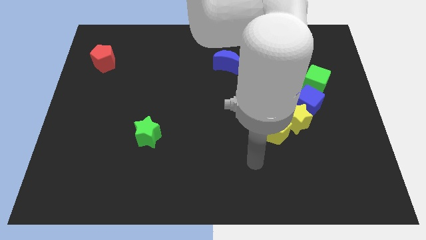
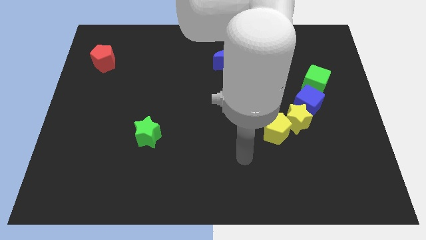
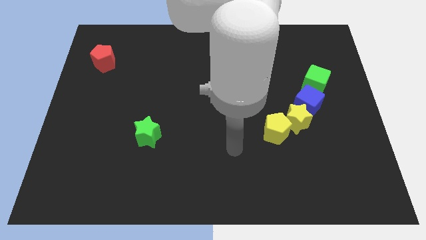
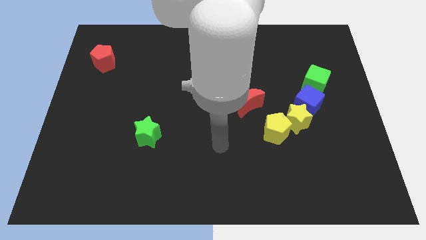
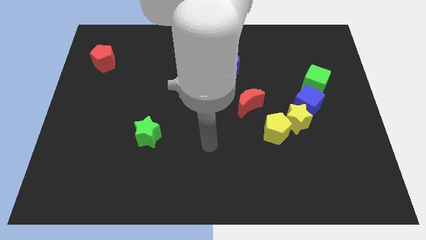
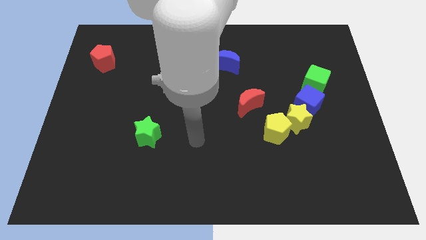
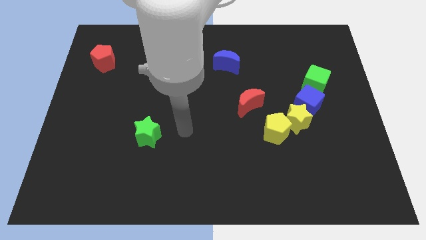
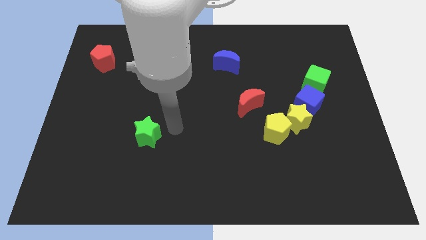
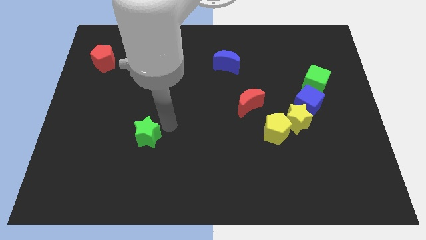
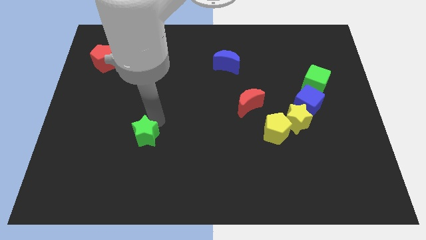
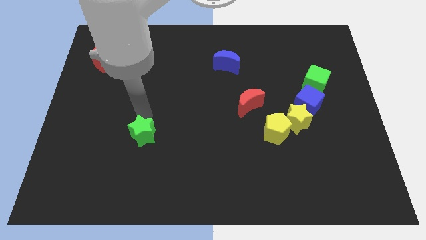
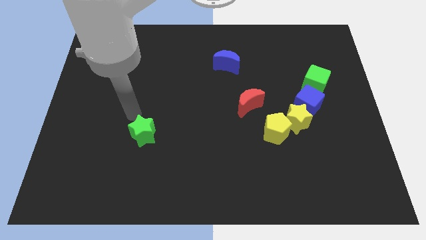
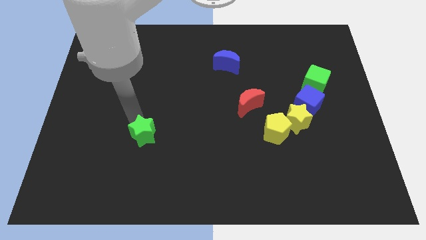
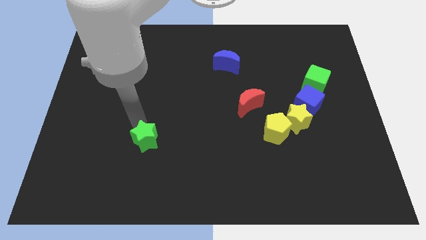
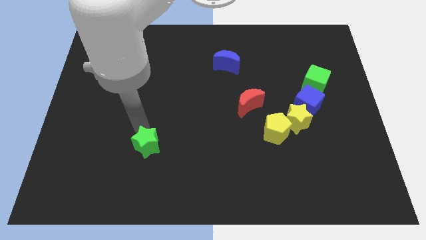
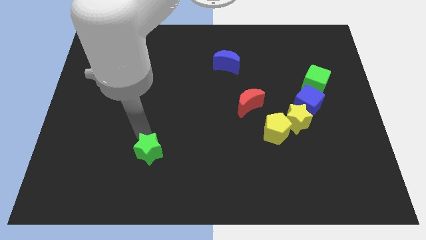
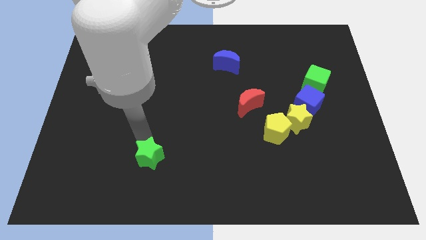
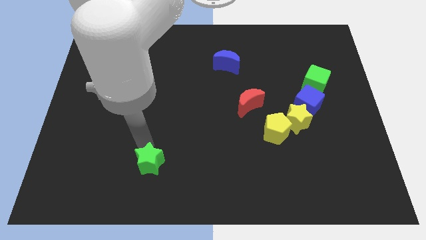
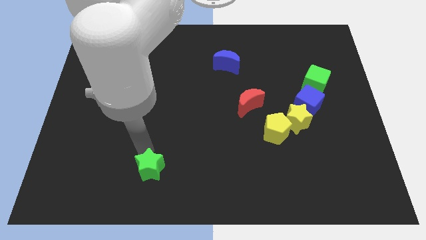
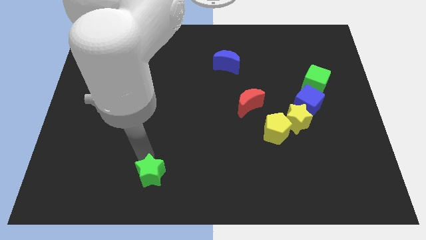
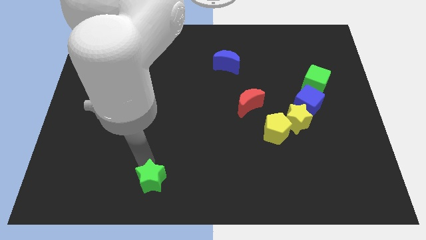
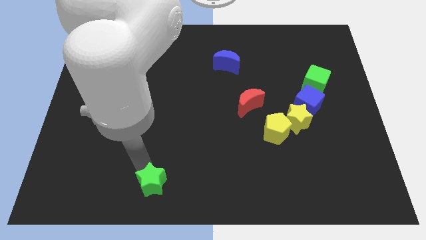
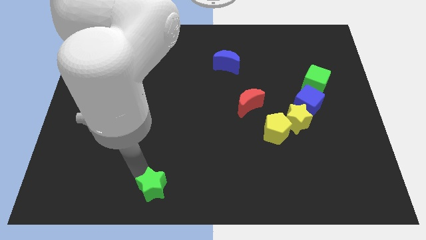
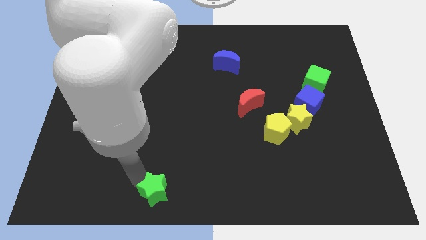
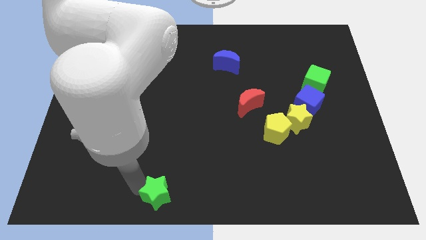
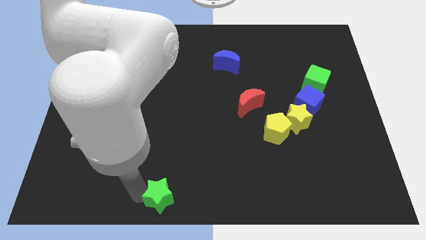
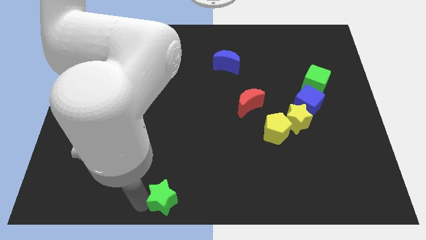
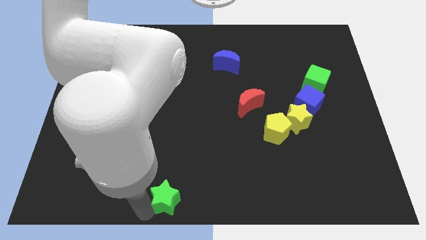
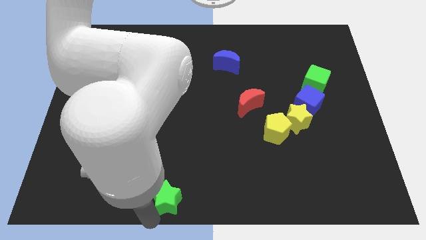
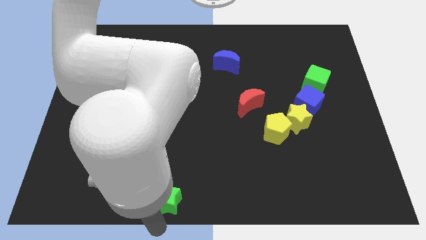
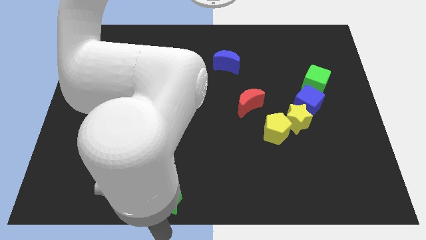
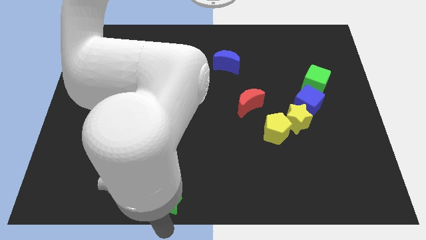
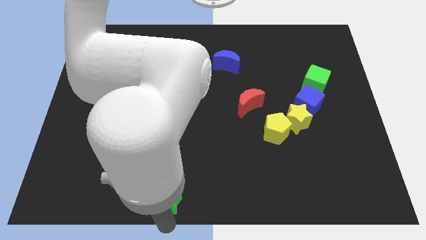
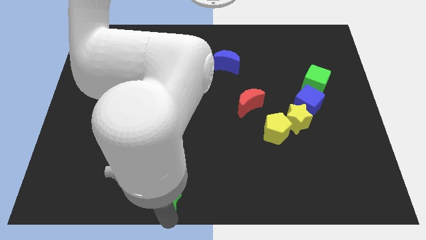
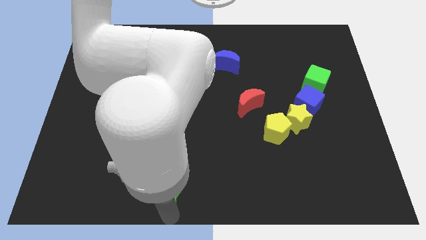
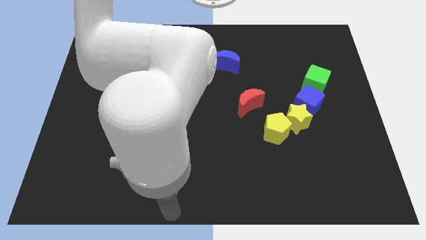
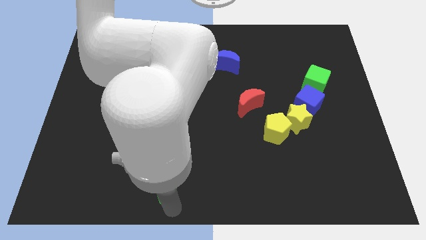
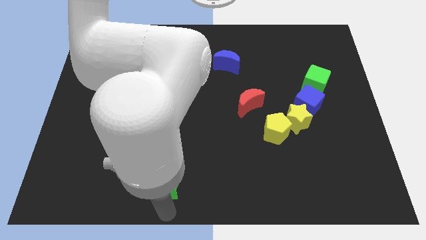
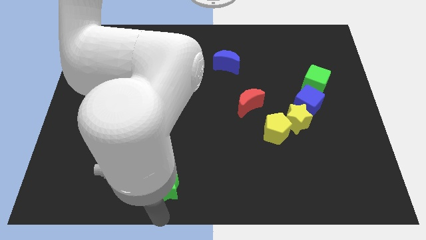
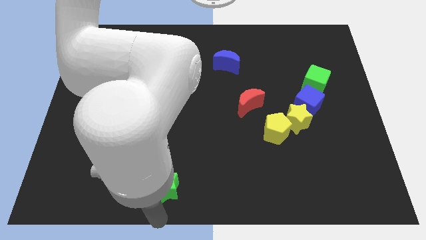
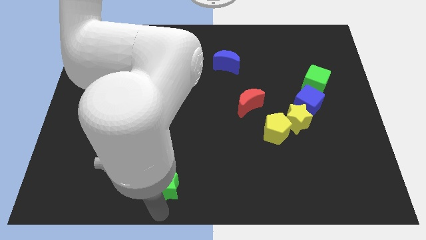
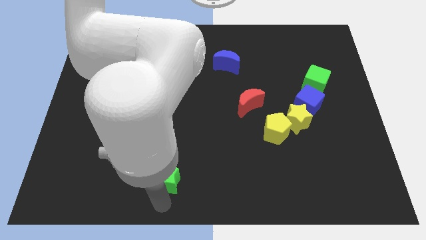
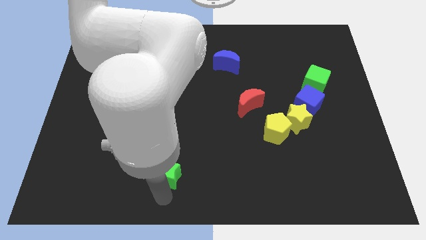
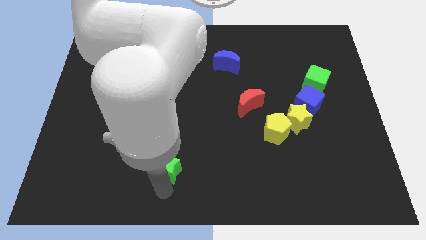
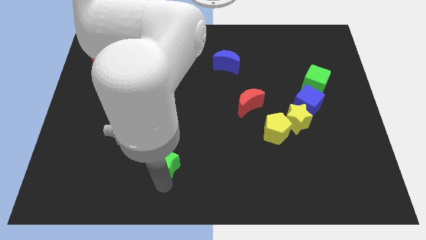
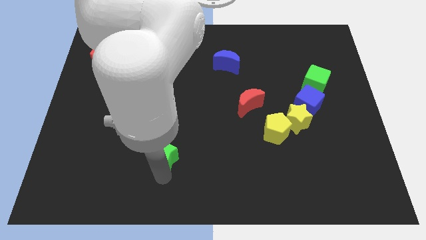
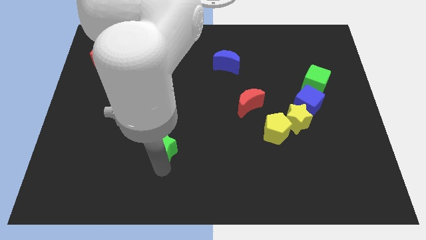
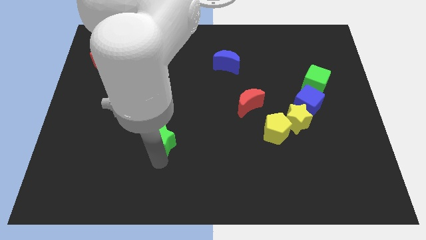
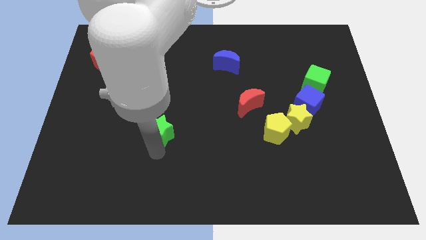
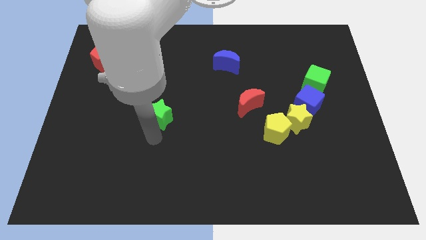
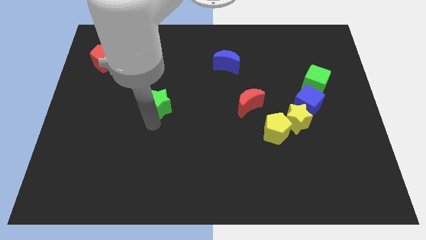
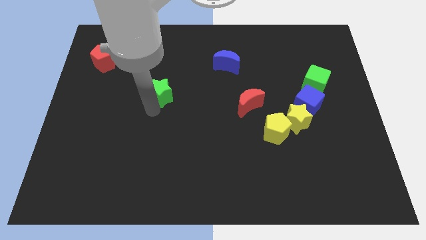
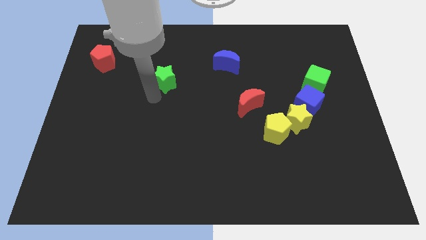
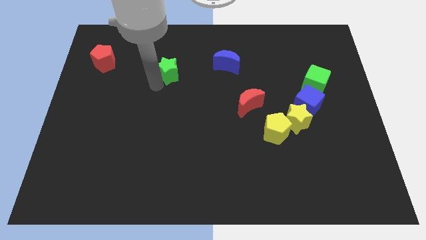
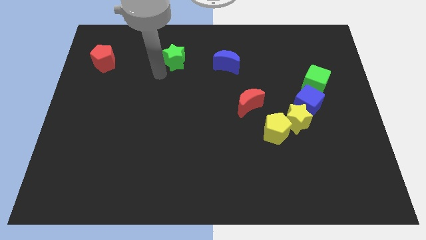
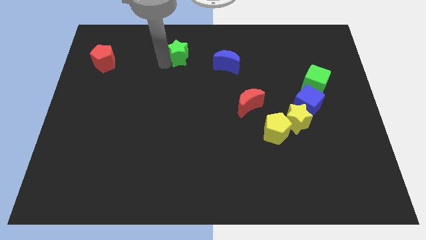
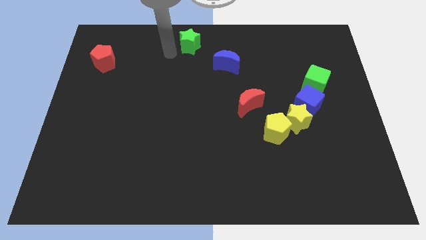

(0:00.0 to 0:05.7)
push the green star to the towards your base

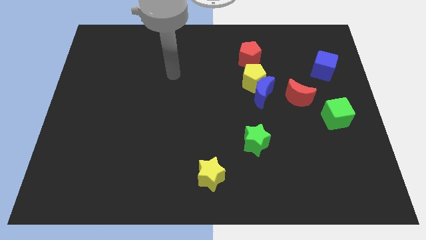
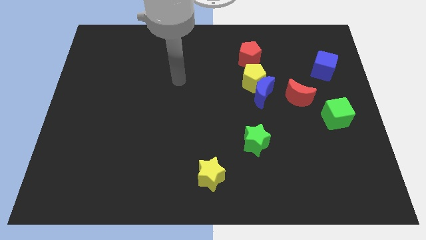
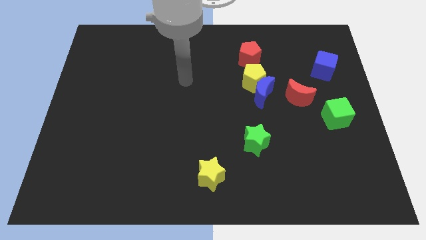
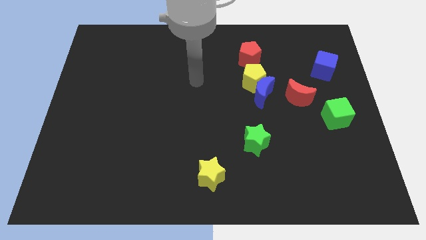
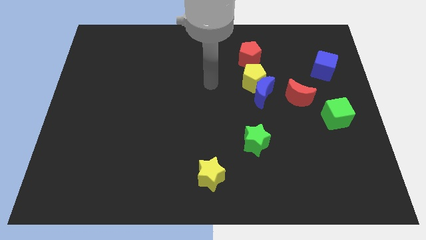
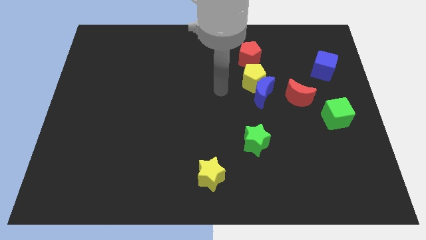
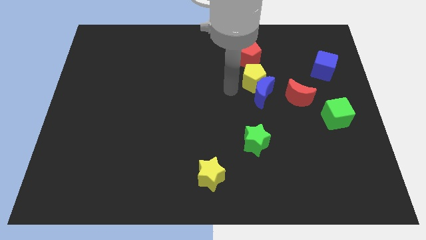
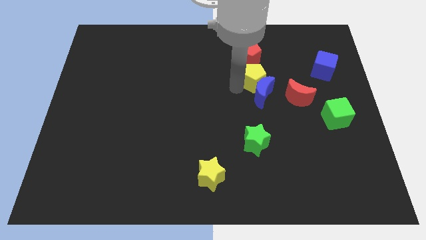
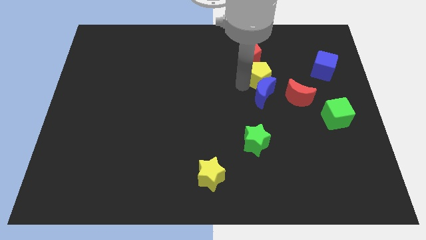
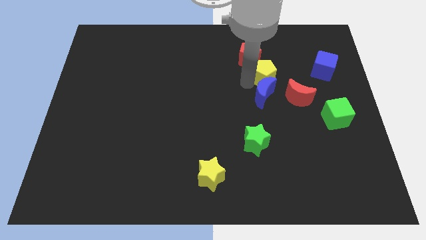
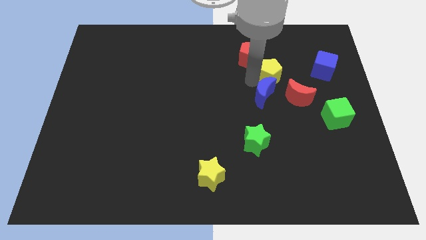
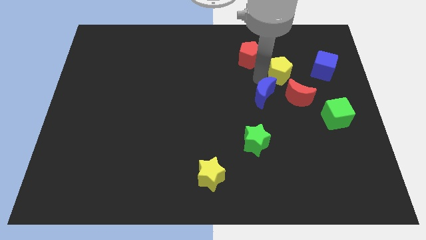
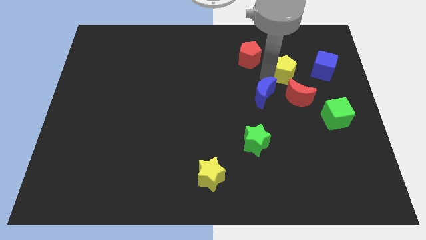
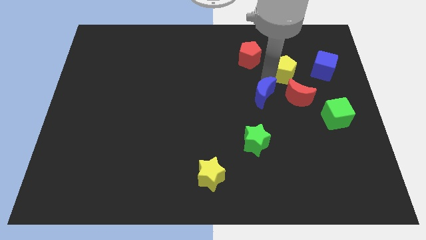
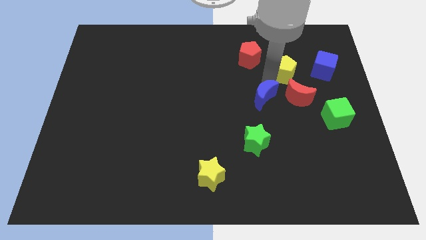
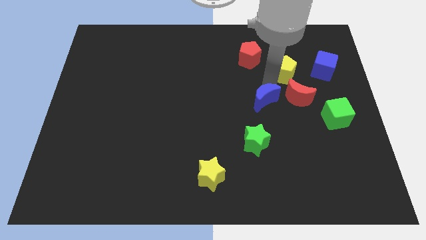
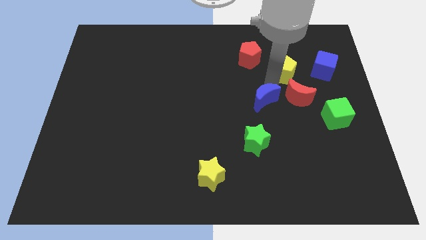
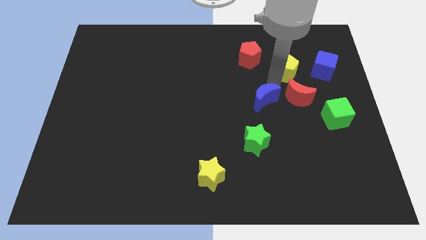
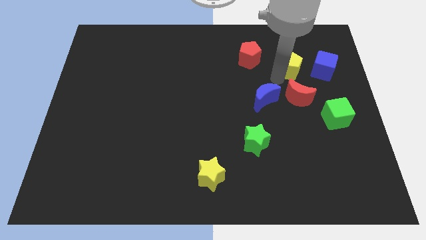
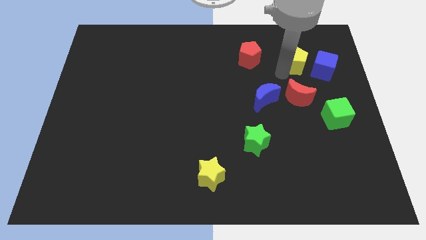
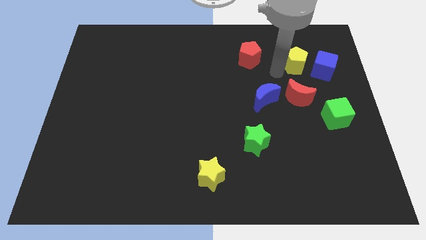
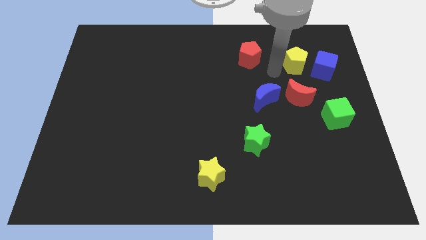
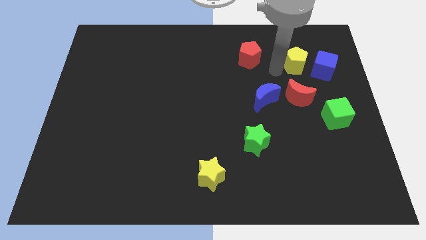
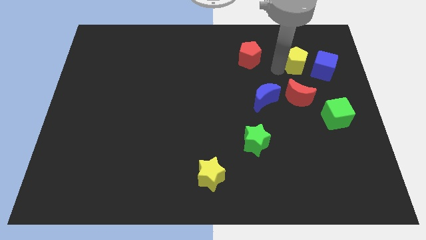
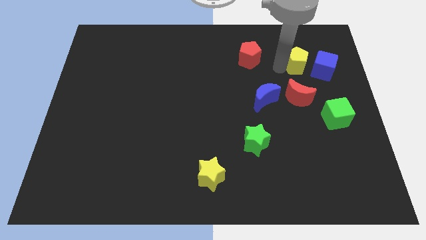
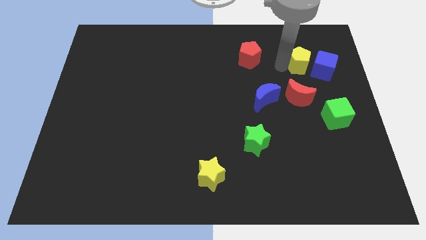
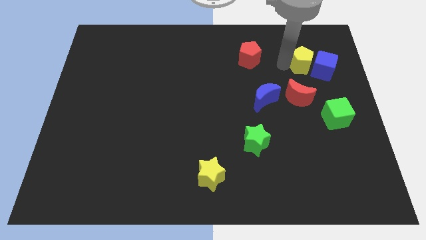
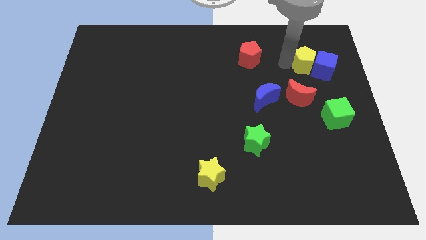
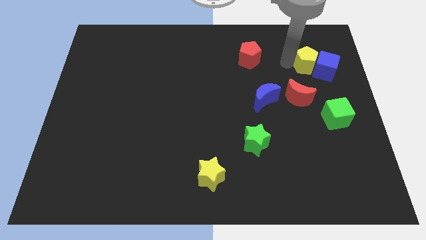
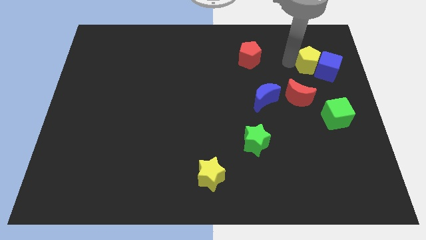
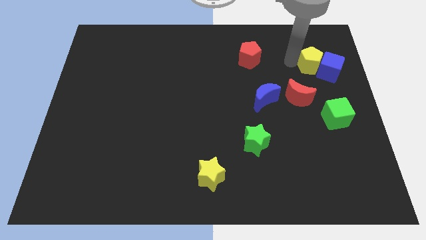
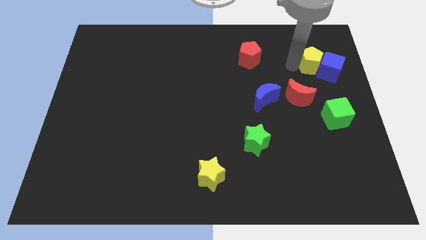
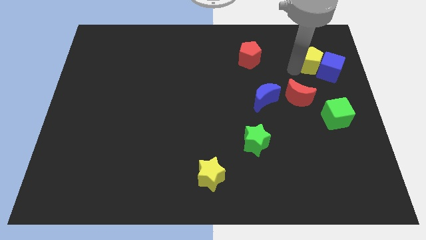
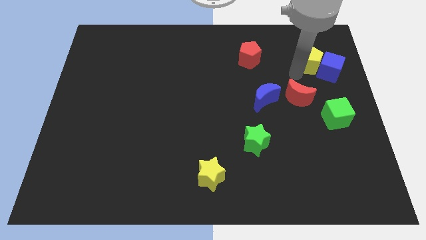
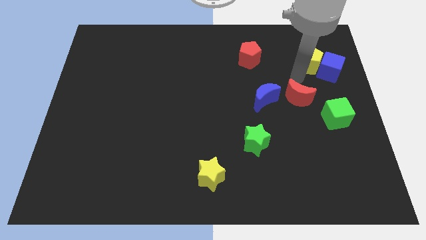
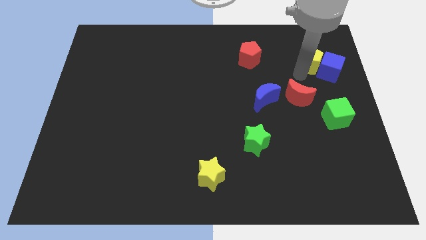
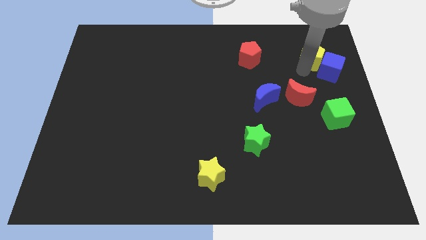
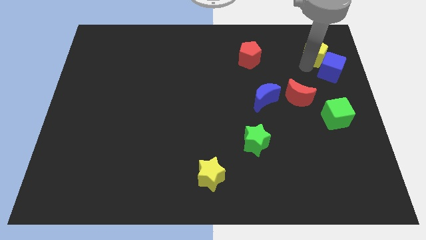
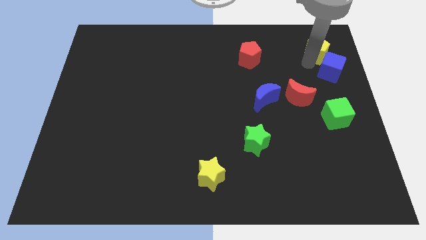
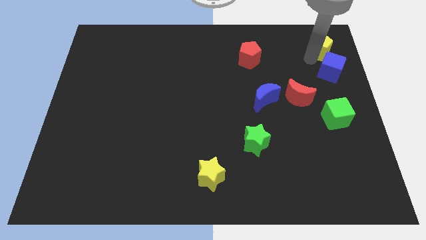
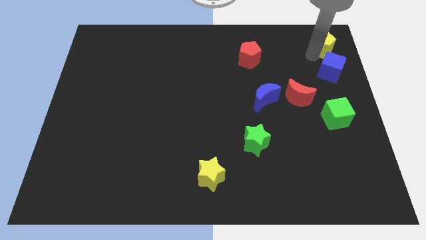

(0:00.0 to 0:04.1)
move the yellow pentagon to the top right corner
